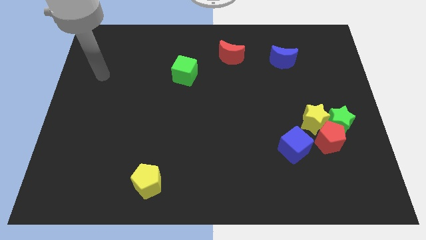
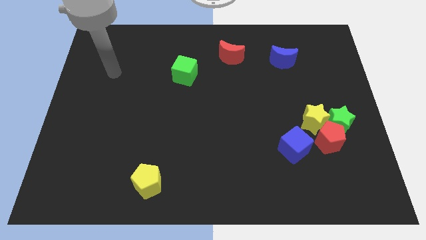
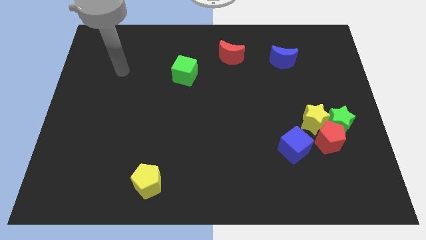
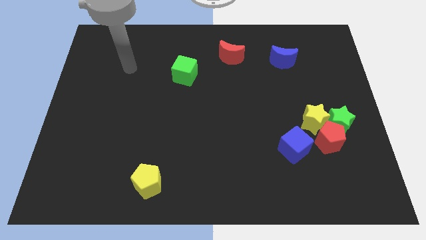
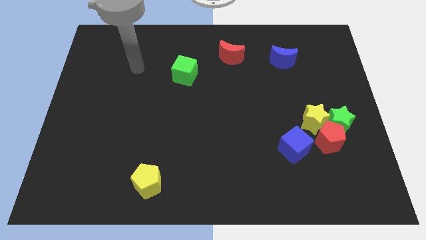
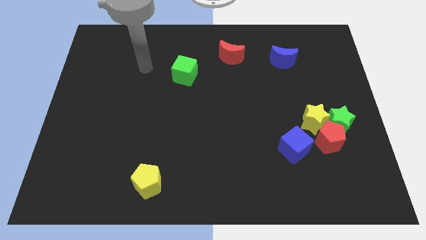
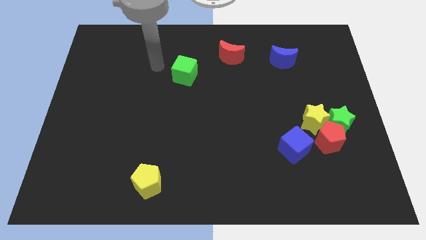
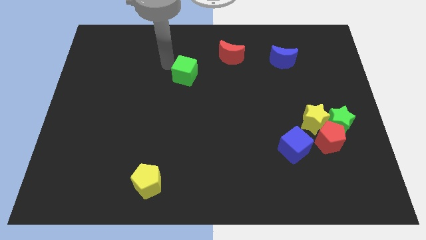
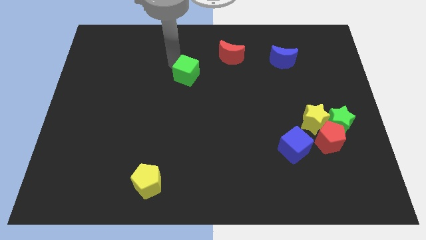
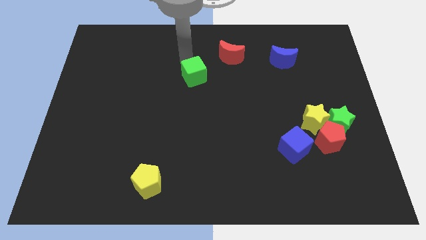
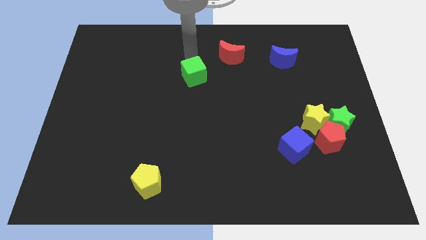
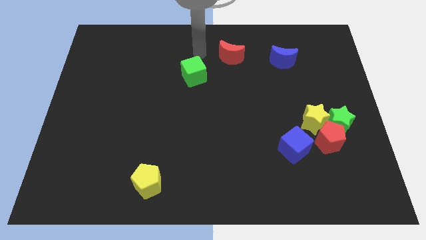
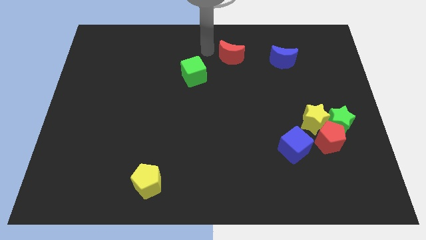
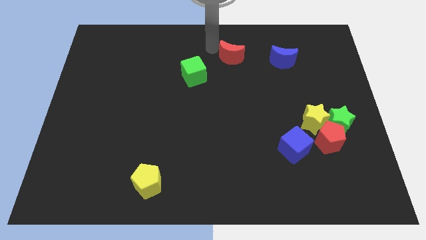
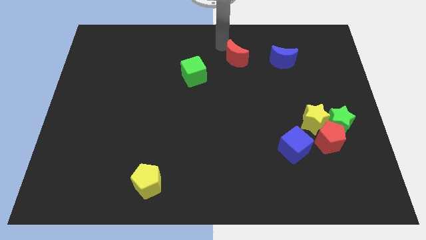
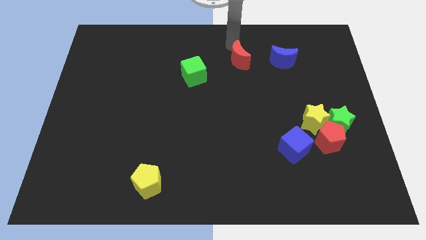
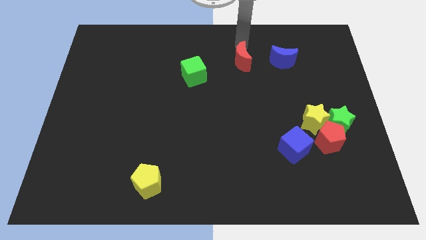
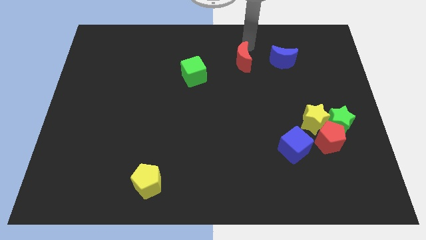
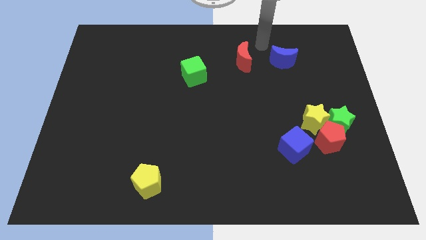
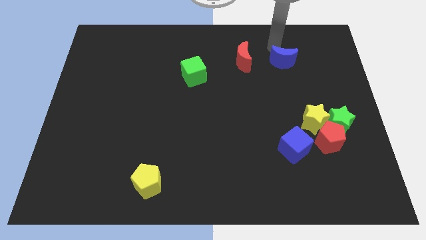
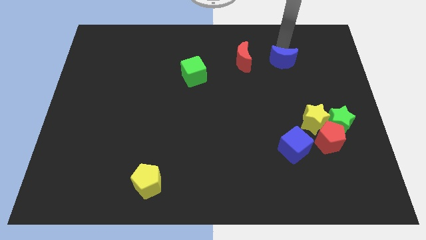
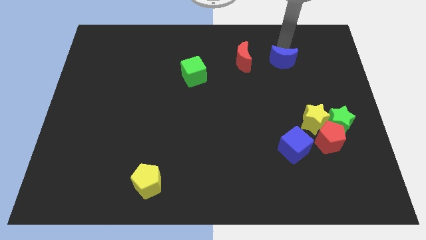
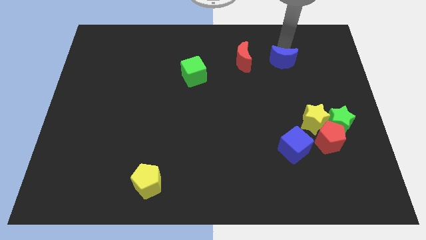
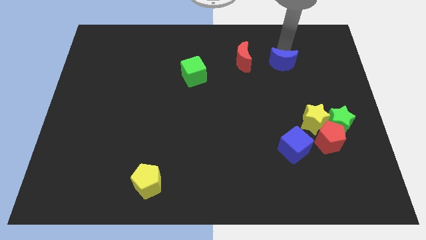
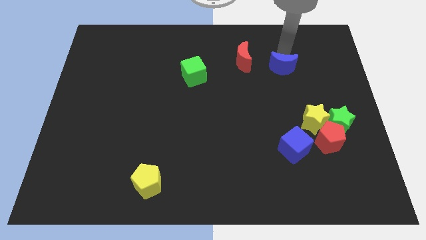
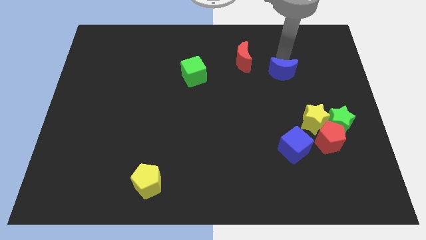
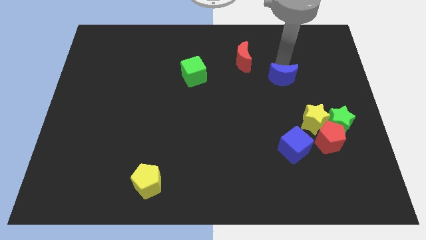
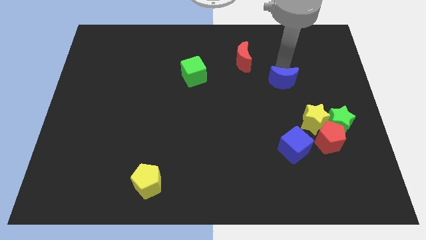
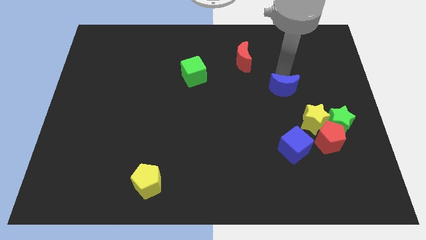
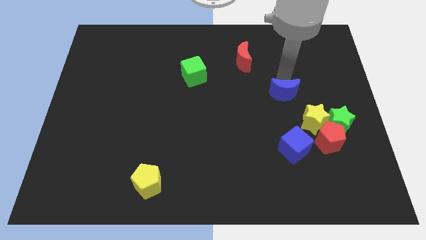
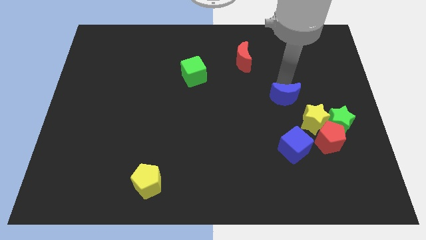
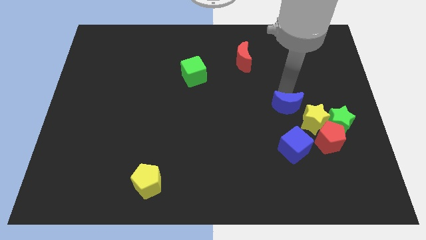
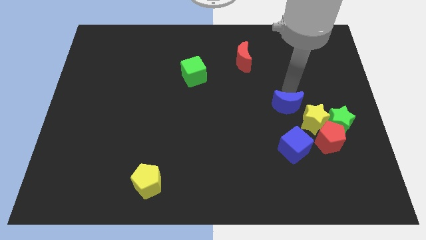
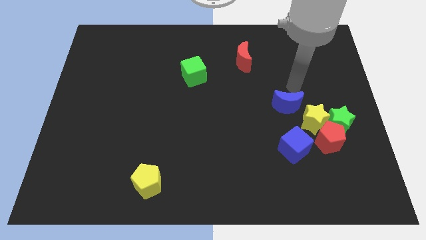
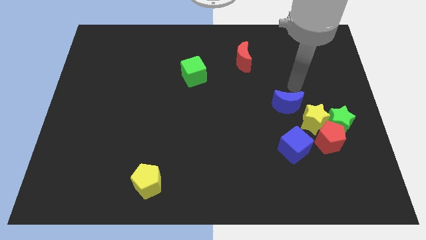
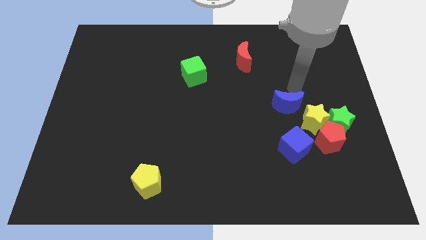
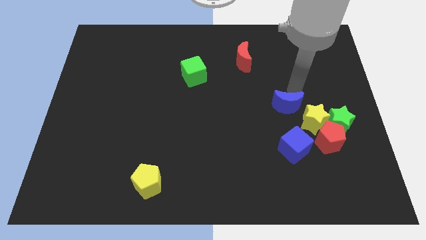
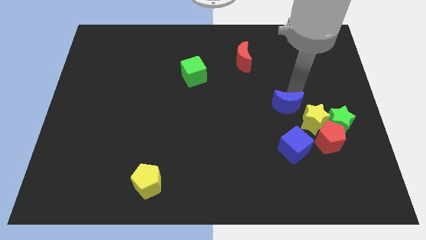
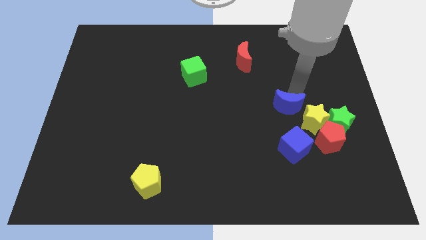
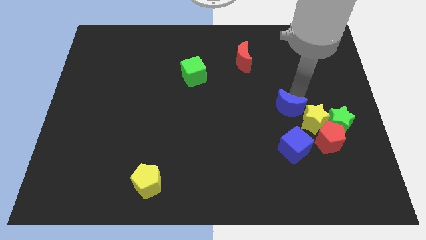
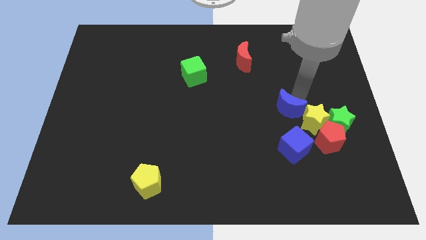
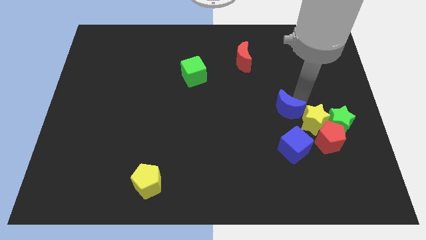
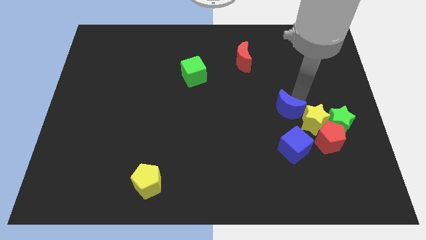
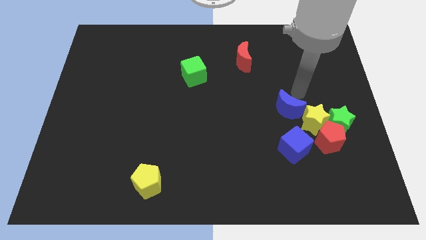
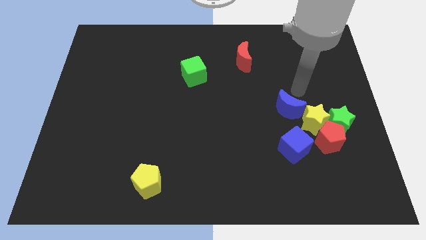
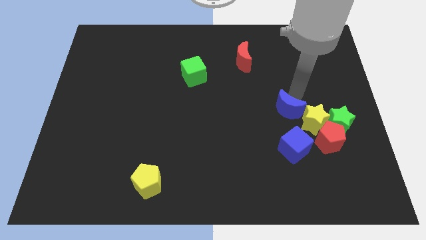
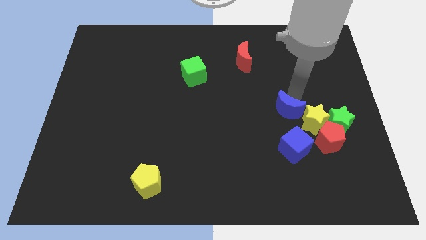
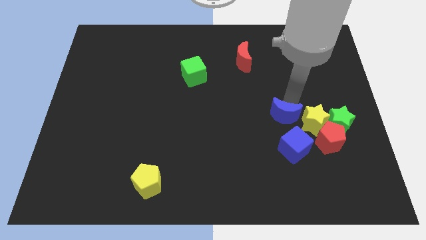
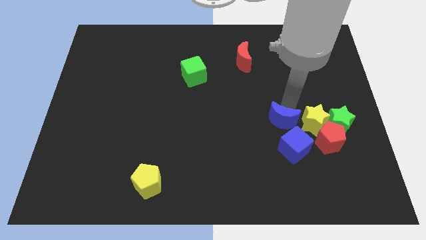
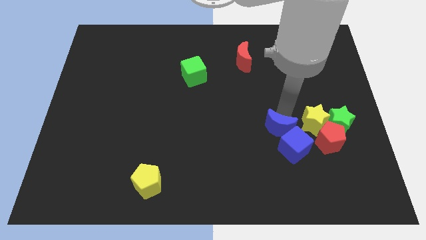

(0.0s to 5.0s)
push the blue moon downwards

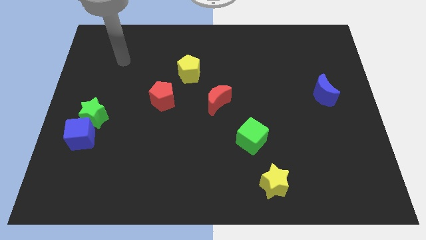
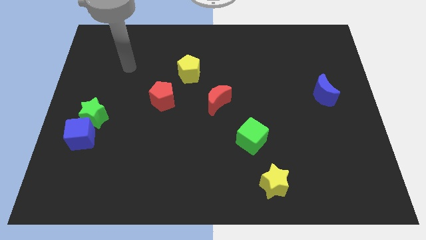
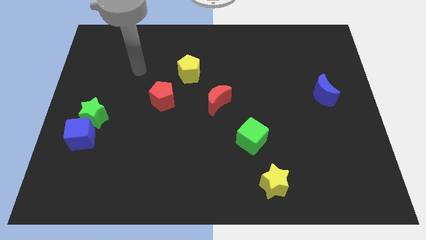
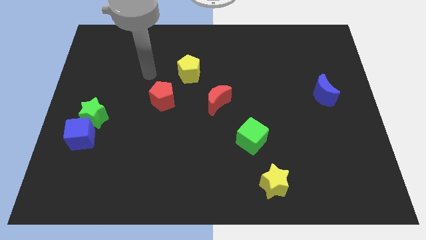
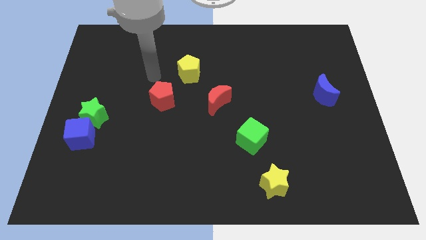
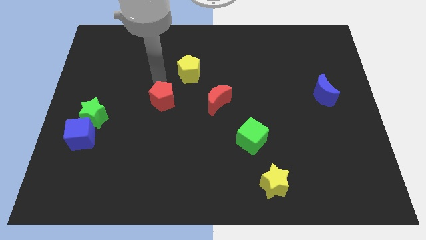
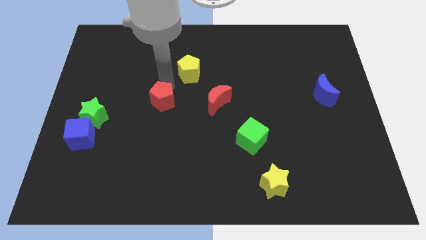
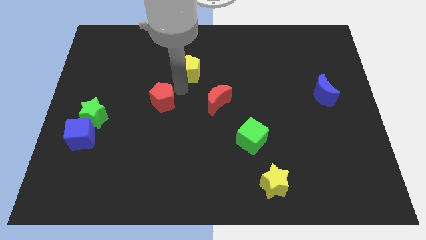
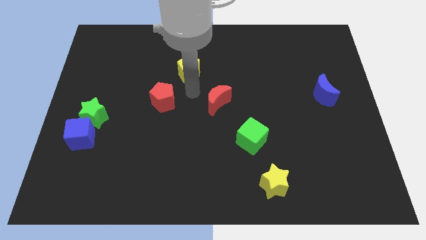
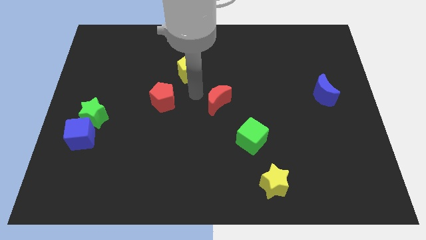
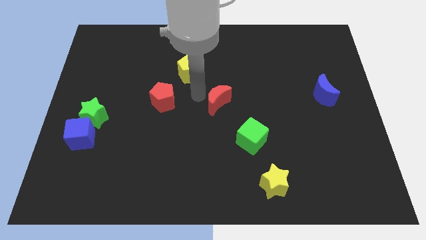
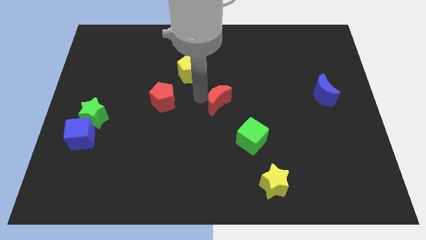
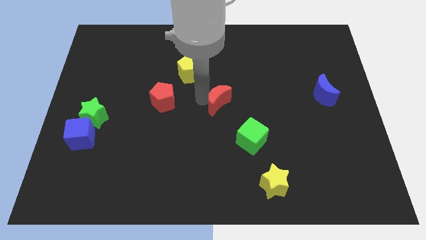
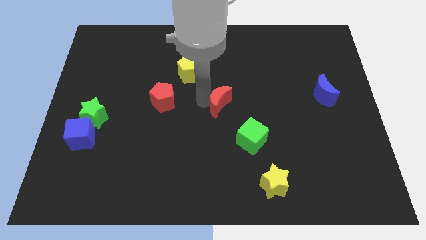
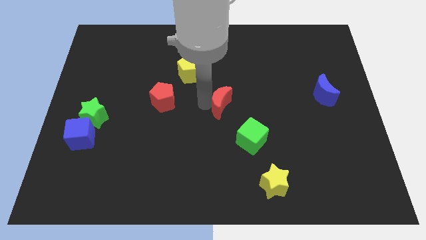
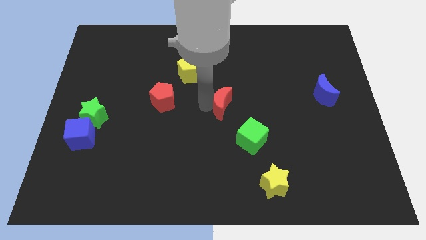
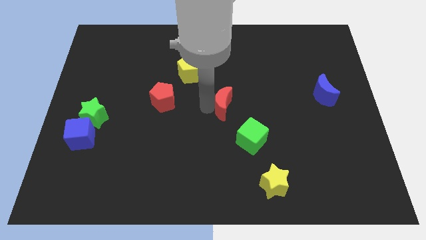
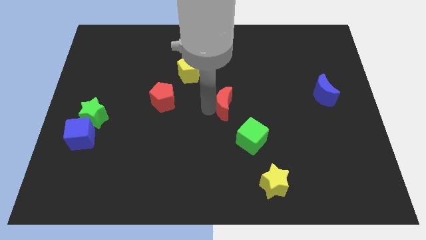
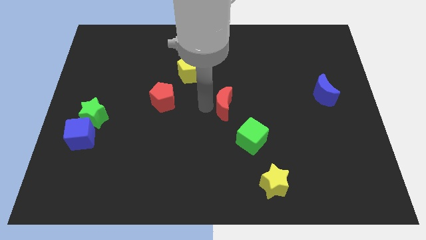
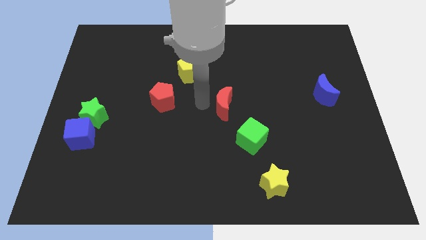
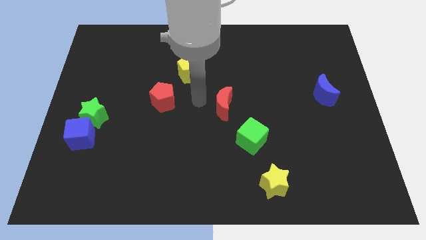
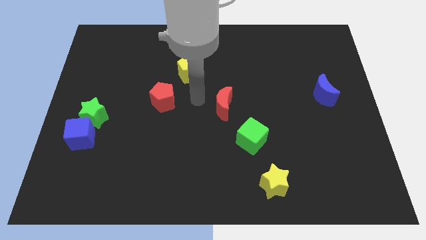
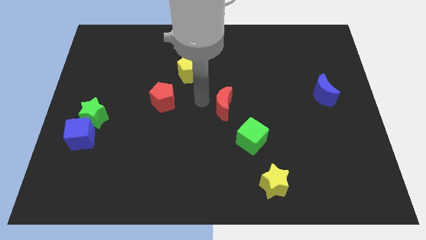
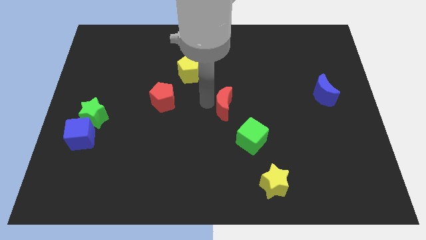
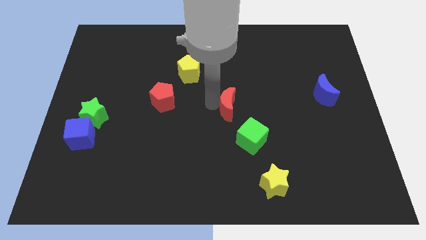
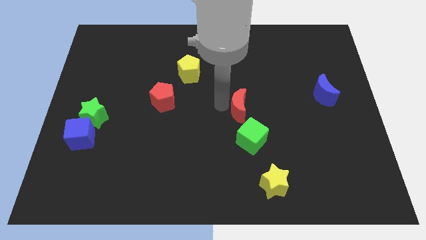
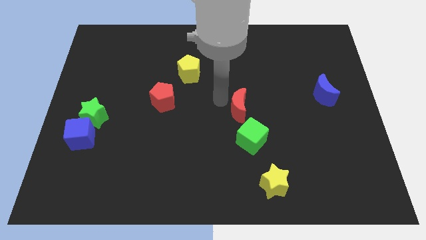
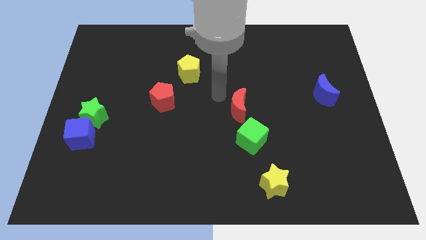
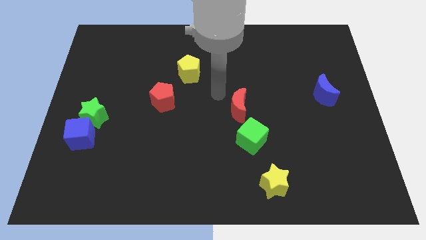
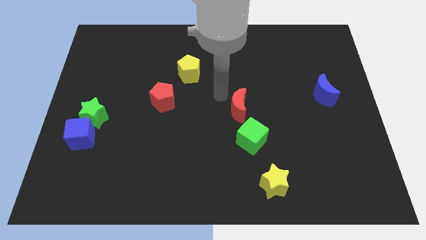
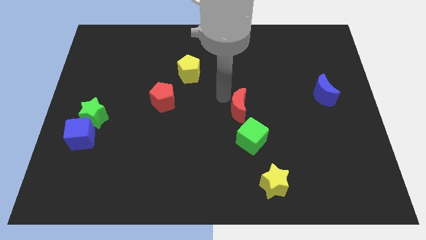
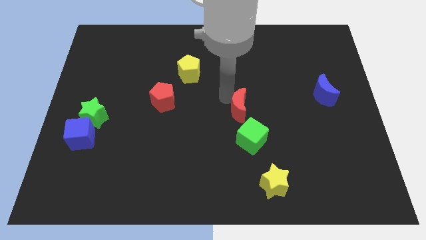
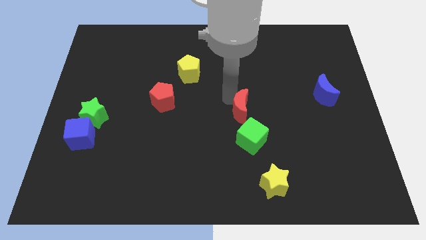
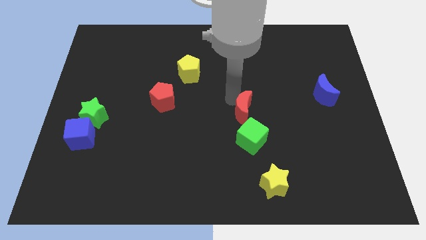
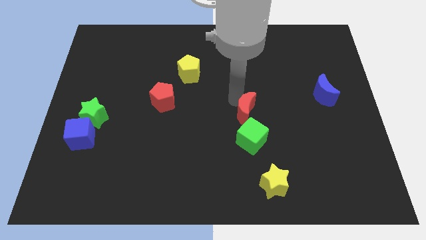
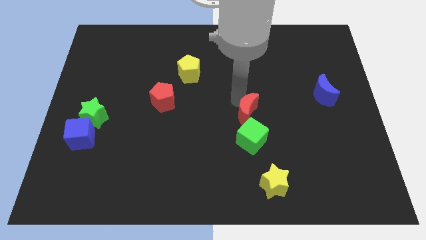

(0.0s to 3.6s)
slide the red moon down and to the right slightly
